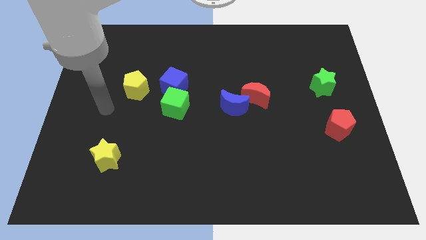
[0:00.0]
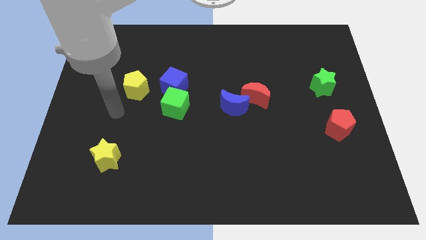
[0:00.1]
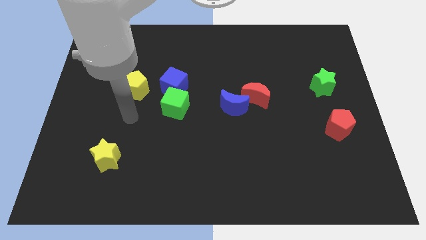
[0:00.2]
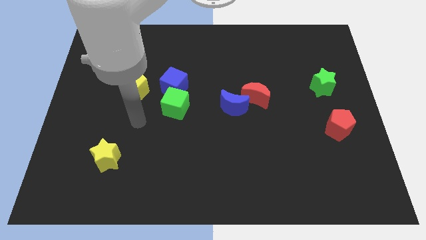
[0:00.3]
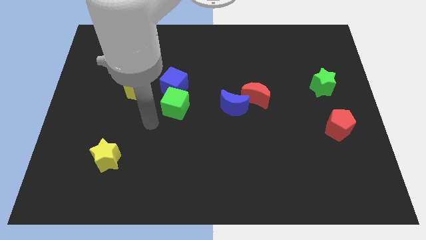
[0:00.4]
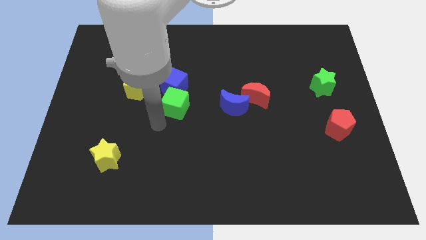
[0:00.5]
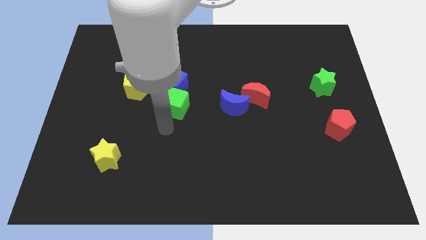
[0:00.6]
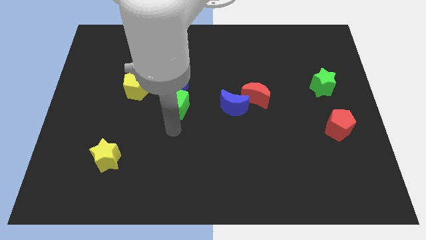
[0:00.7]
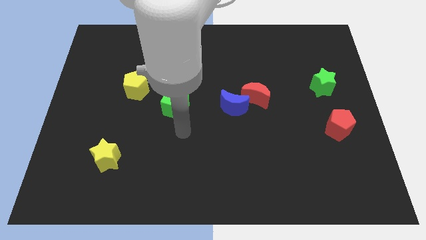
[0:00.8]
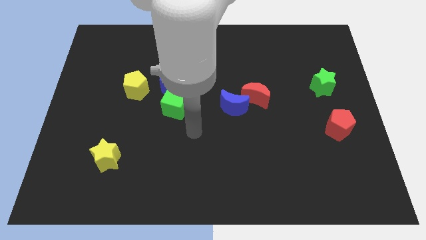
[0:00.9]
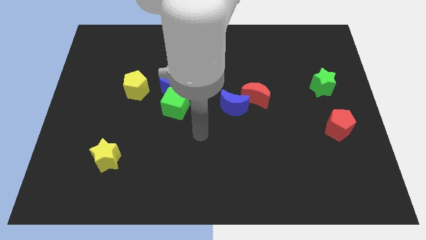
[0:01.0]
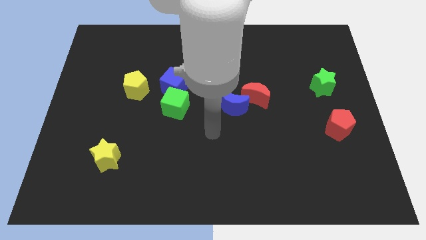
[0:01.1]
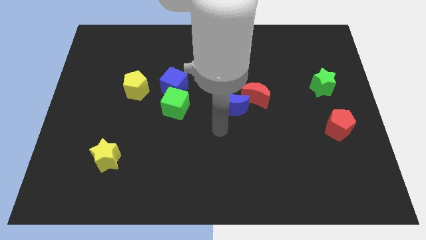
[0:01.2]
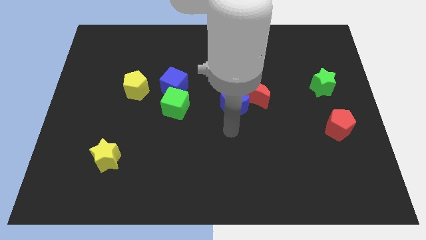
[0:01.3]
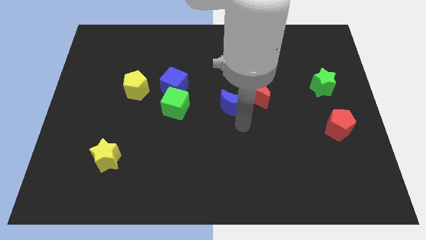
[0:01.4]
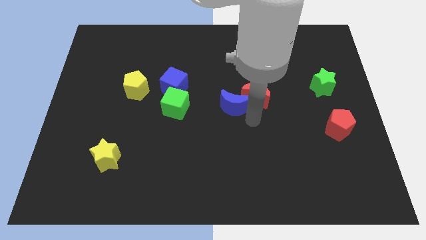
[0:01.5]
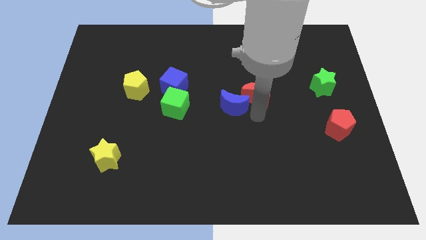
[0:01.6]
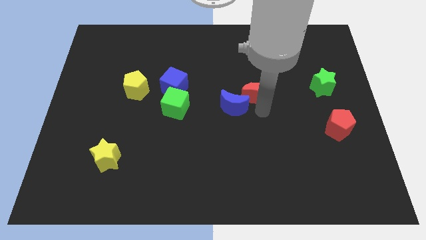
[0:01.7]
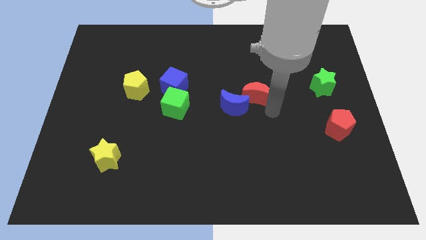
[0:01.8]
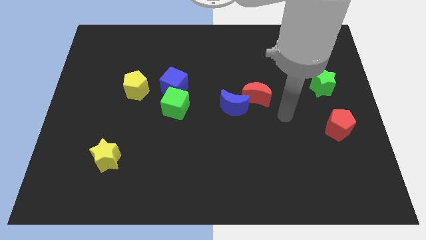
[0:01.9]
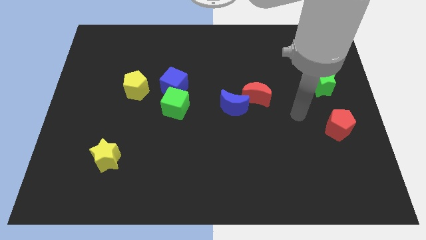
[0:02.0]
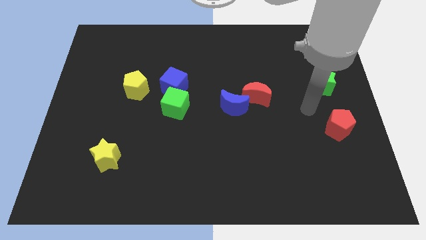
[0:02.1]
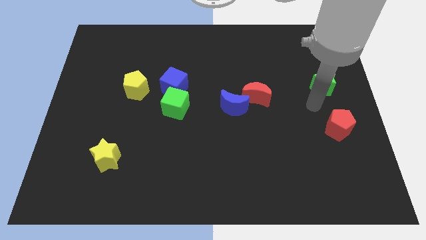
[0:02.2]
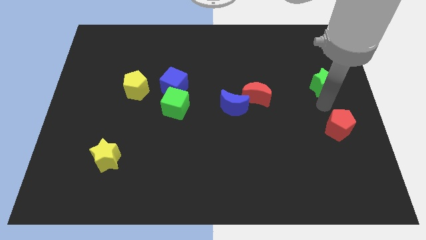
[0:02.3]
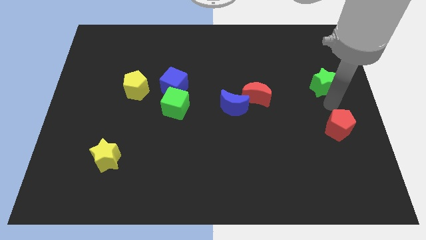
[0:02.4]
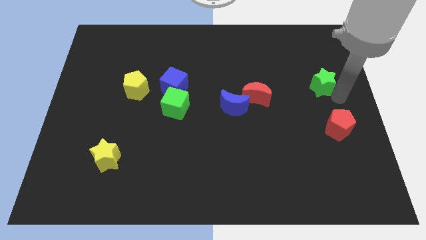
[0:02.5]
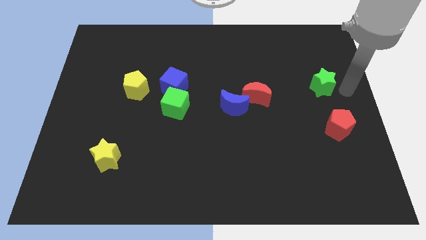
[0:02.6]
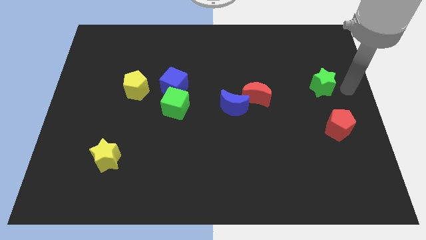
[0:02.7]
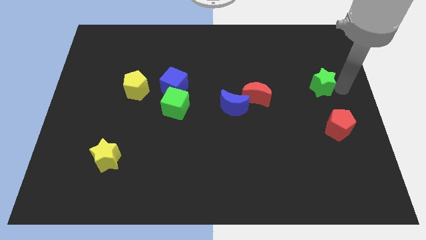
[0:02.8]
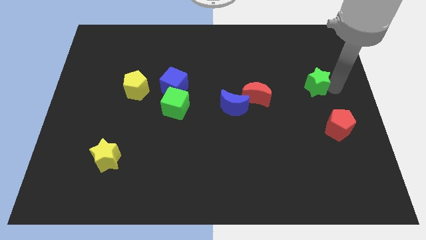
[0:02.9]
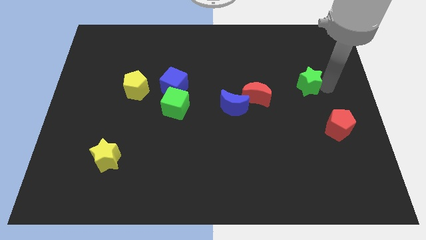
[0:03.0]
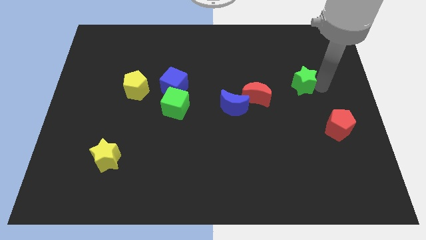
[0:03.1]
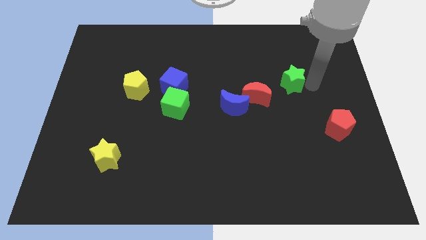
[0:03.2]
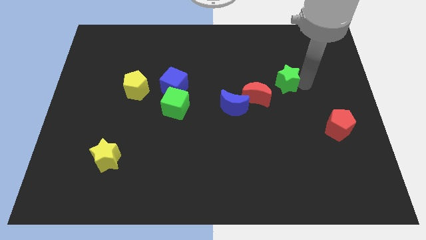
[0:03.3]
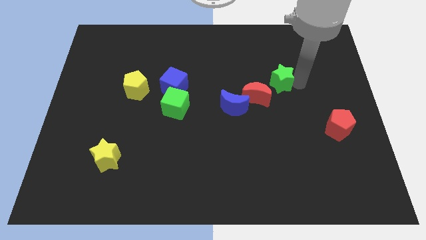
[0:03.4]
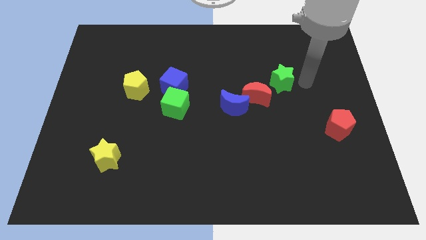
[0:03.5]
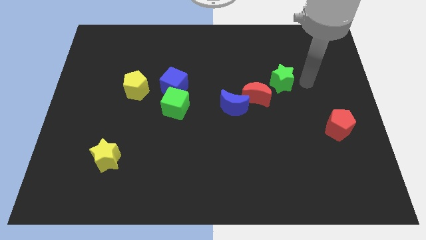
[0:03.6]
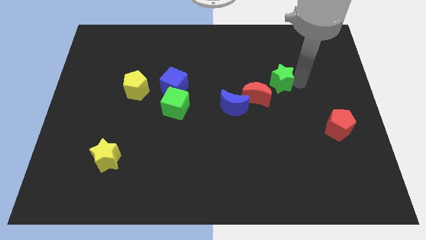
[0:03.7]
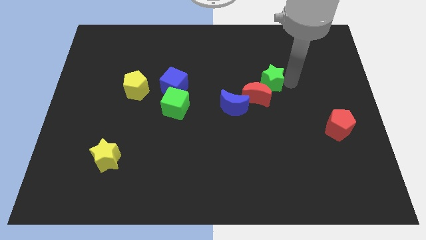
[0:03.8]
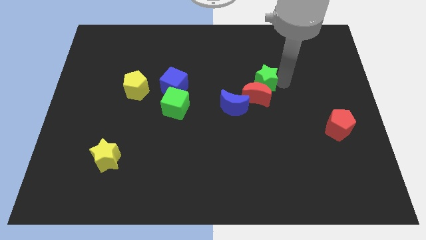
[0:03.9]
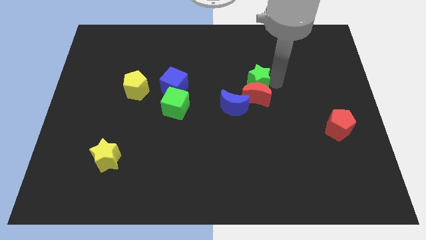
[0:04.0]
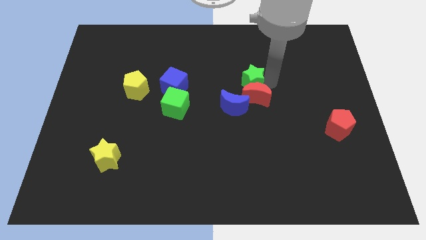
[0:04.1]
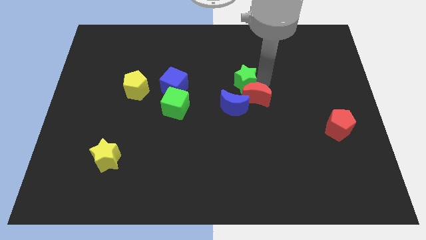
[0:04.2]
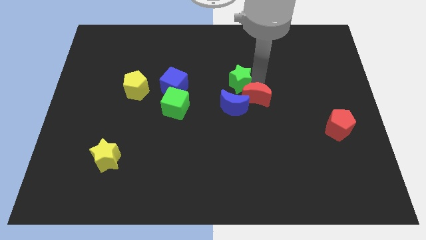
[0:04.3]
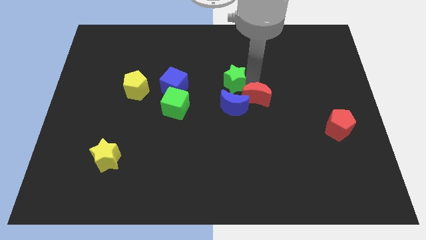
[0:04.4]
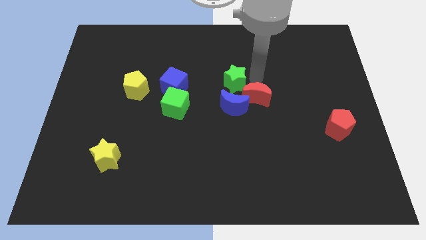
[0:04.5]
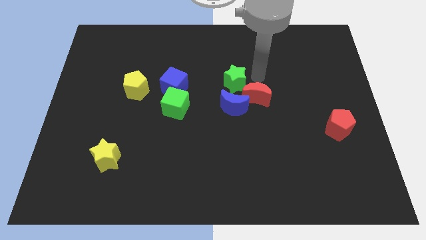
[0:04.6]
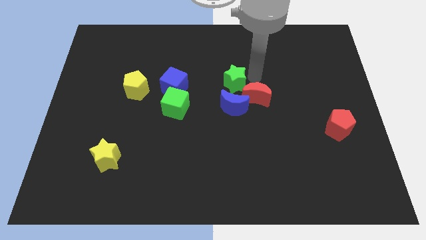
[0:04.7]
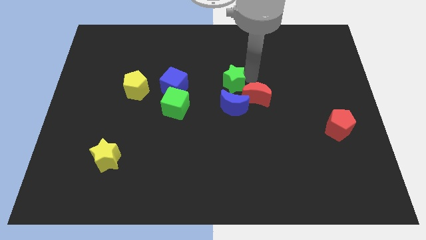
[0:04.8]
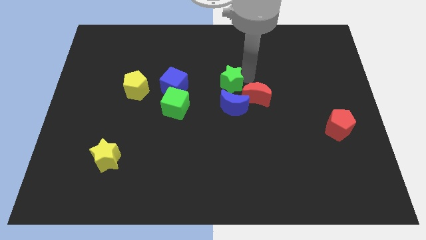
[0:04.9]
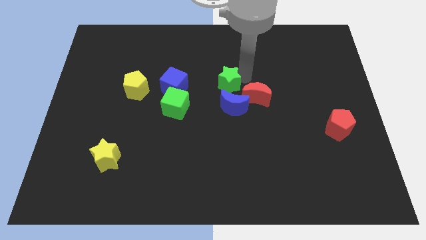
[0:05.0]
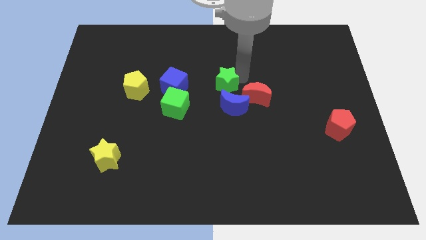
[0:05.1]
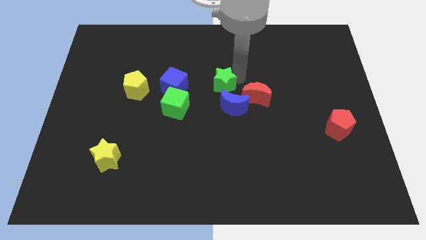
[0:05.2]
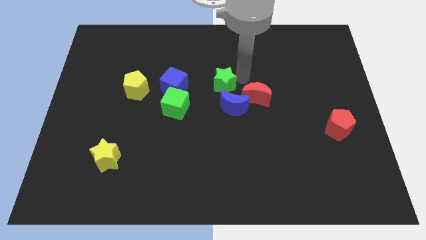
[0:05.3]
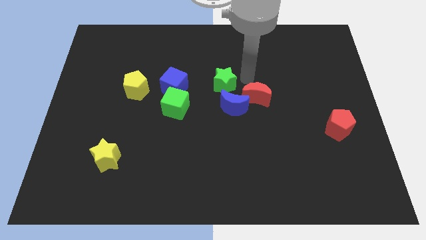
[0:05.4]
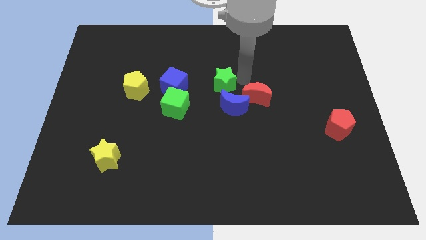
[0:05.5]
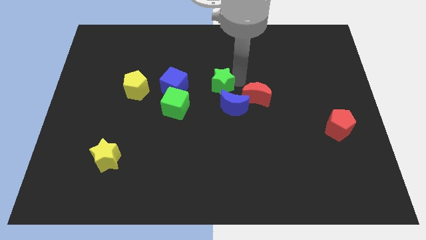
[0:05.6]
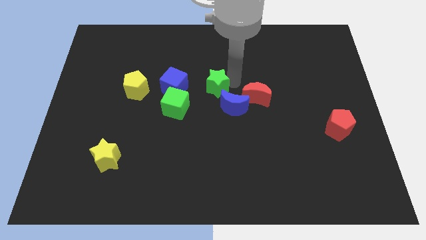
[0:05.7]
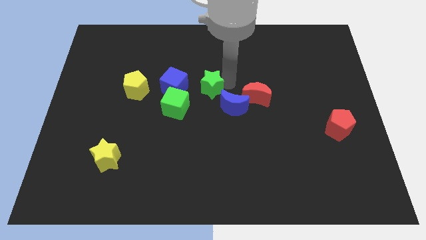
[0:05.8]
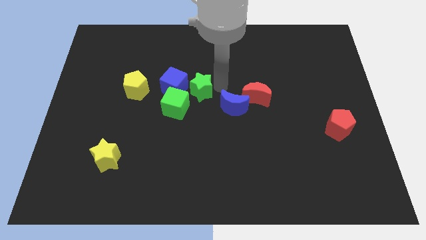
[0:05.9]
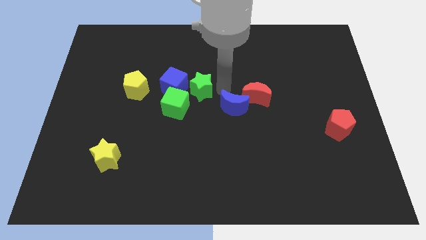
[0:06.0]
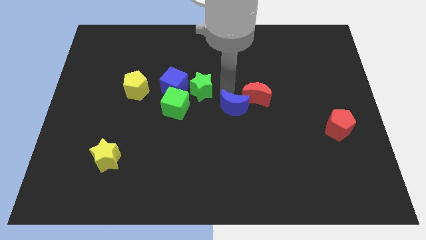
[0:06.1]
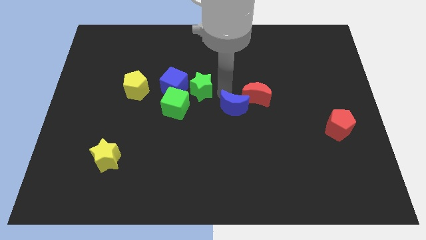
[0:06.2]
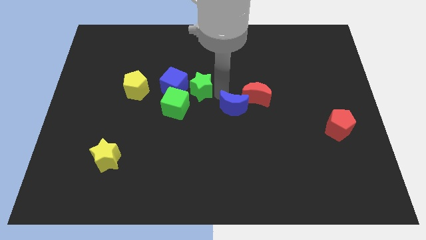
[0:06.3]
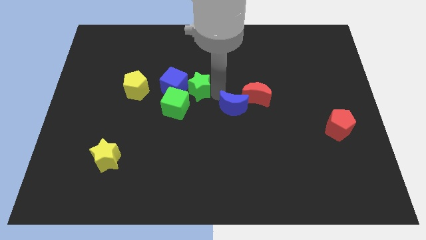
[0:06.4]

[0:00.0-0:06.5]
slide the green star next to the blue cube

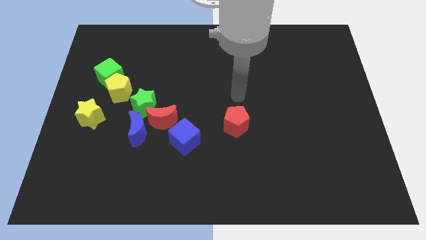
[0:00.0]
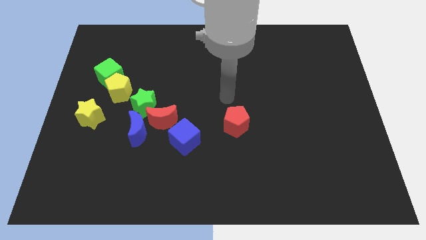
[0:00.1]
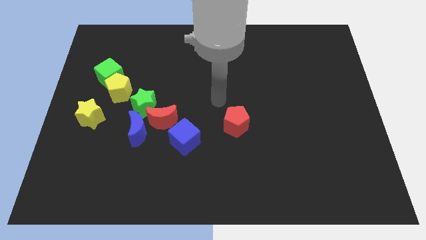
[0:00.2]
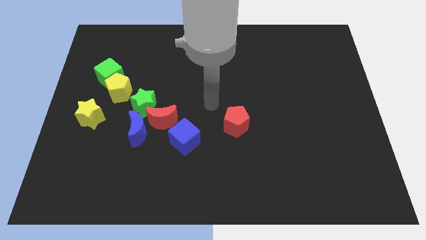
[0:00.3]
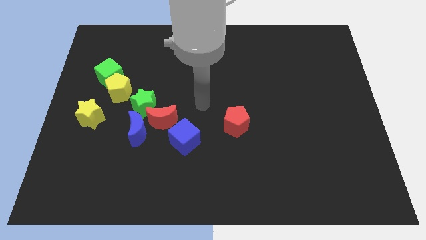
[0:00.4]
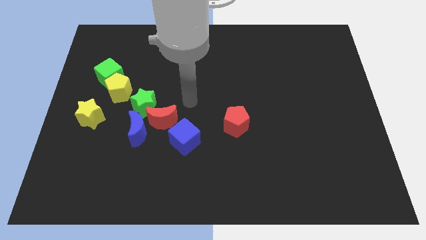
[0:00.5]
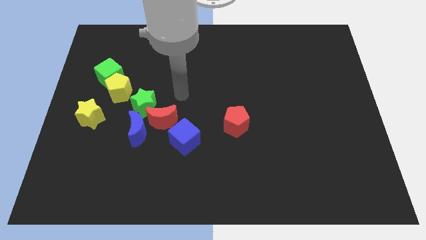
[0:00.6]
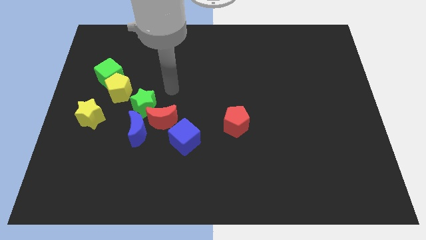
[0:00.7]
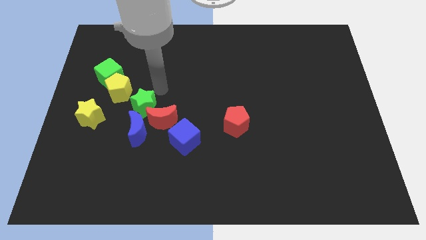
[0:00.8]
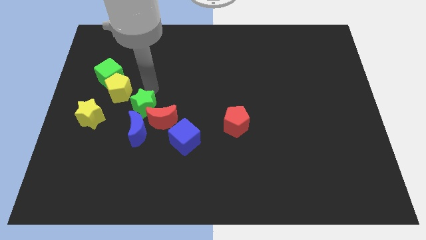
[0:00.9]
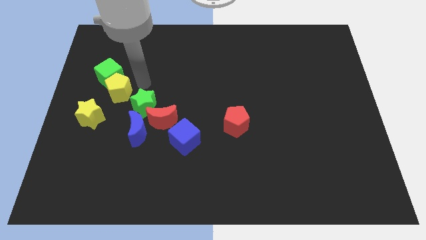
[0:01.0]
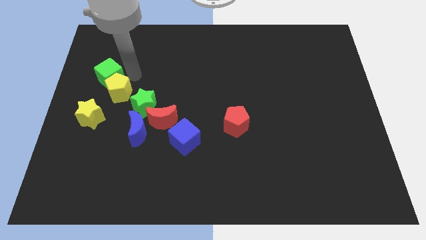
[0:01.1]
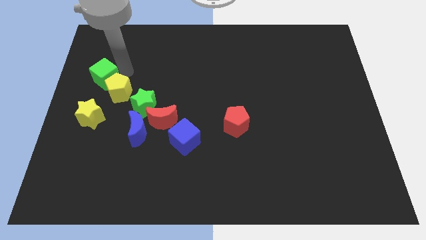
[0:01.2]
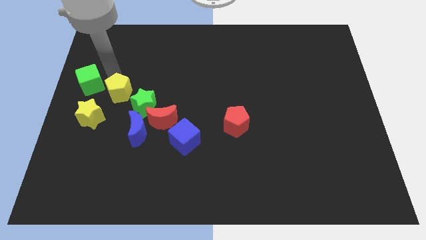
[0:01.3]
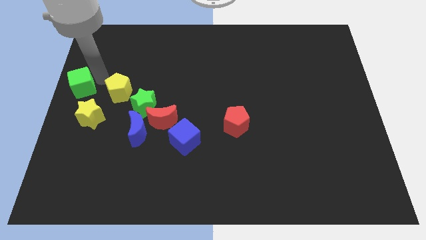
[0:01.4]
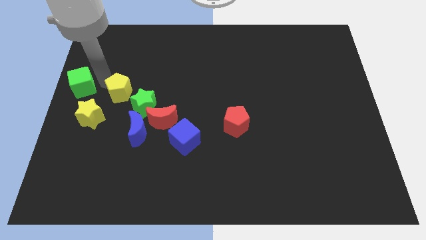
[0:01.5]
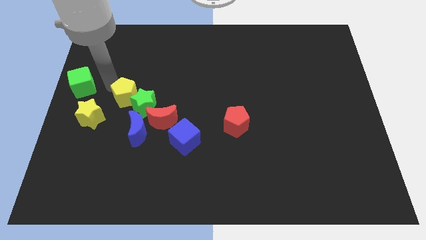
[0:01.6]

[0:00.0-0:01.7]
move the yellow pentagon to the green star
